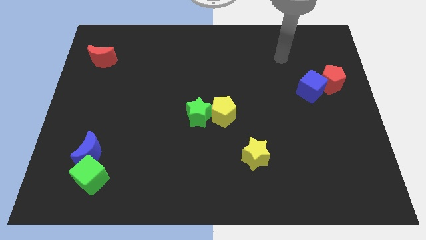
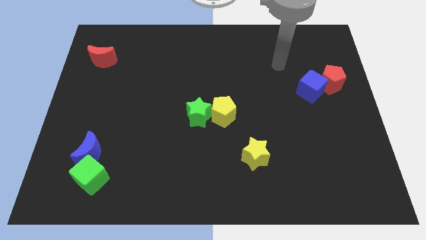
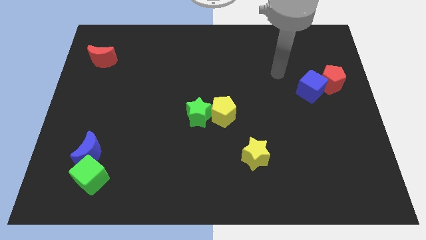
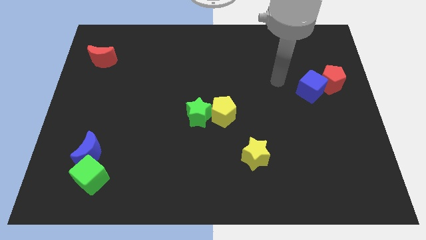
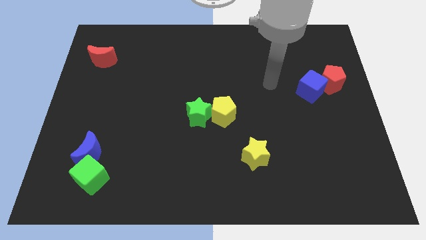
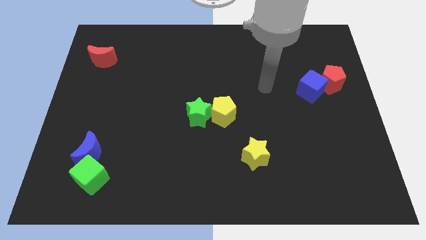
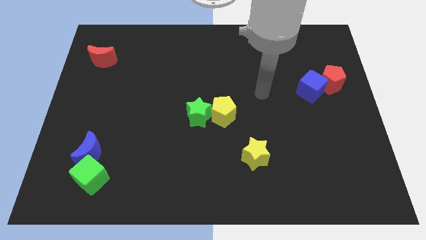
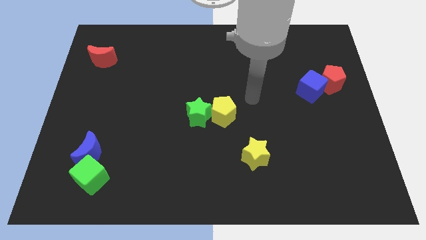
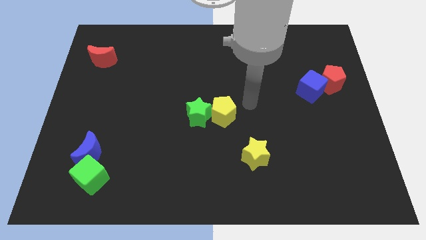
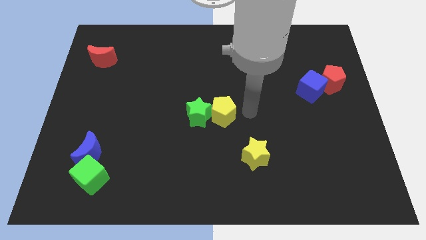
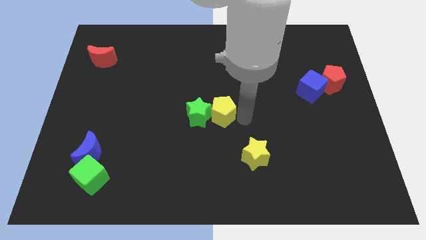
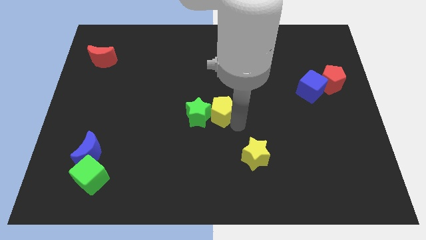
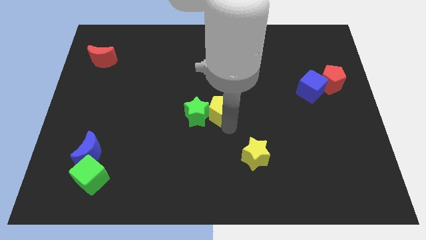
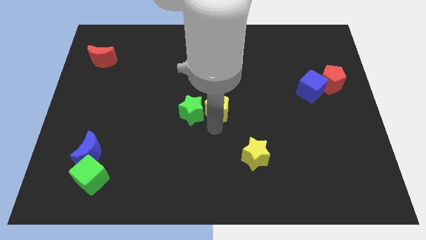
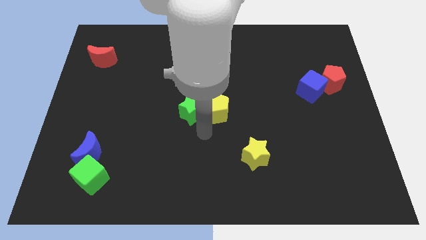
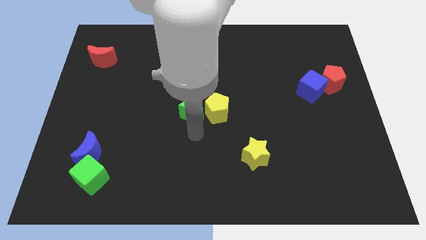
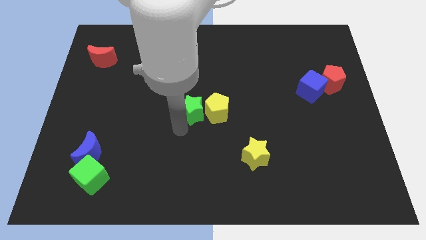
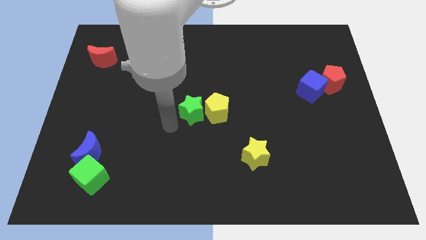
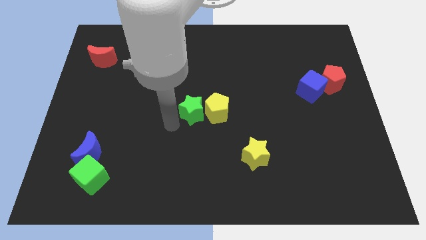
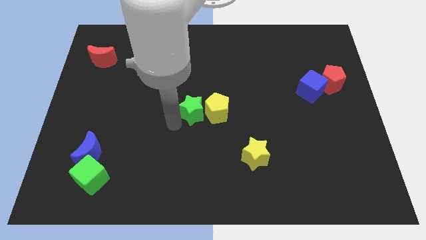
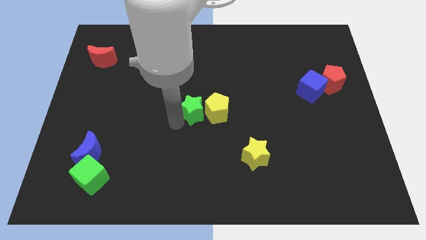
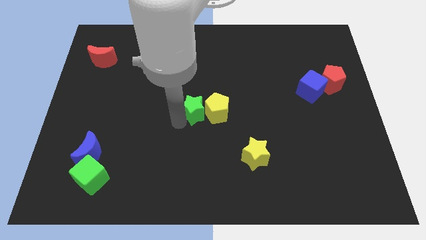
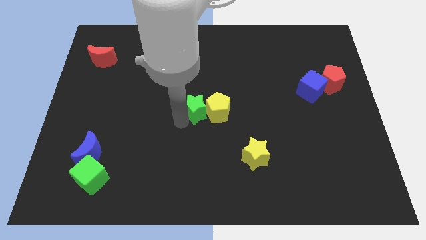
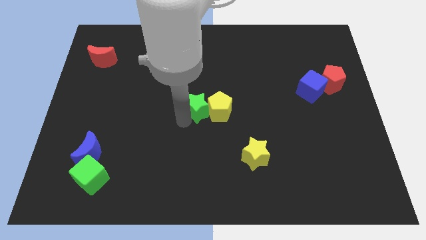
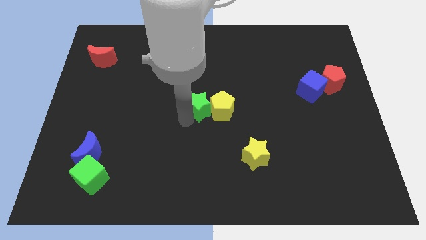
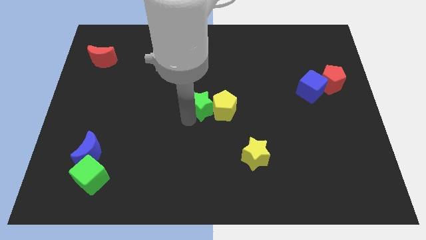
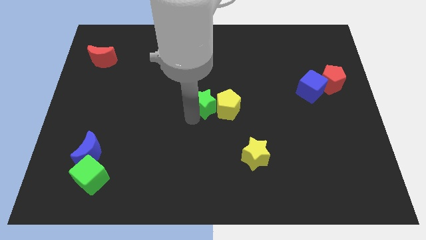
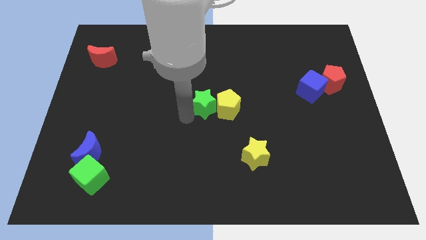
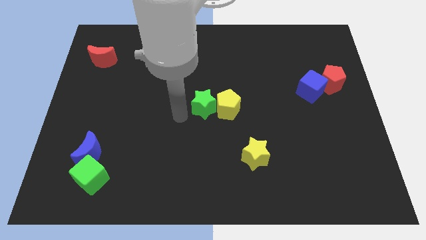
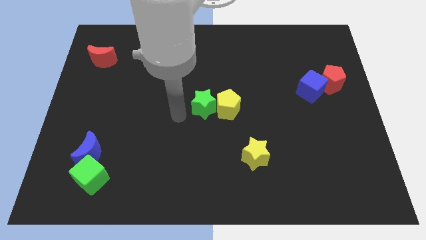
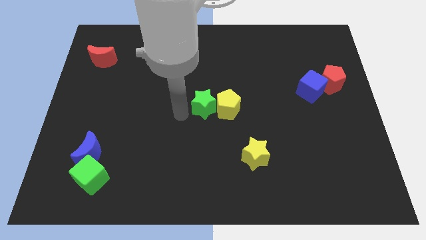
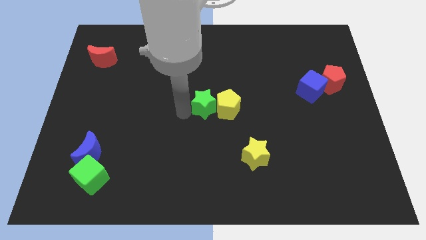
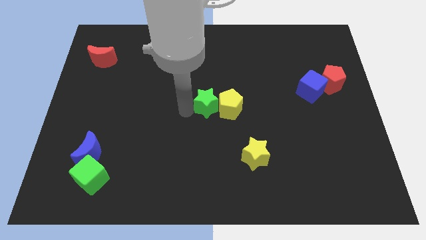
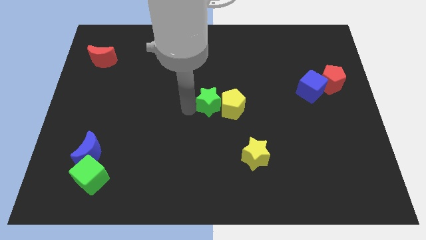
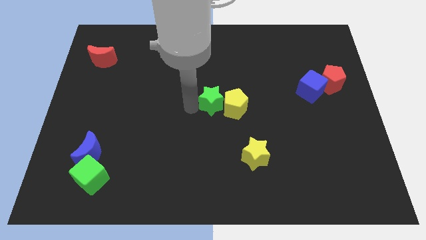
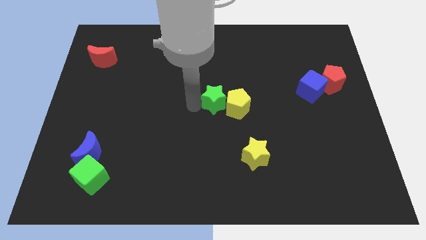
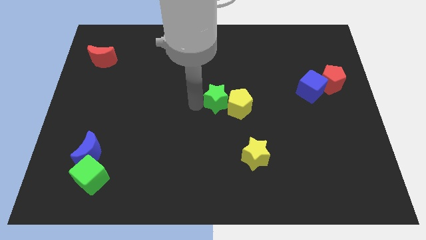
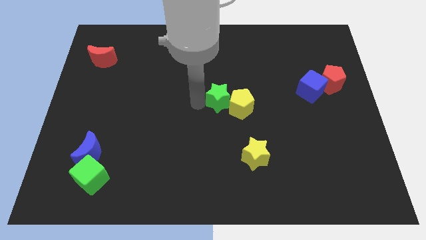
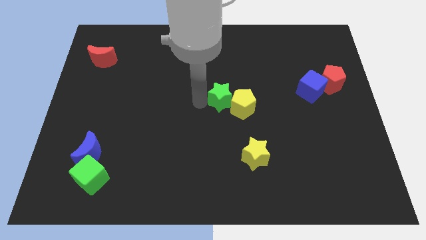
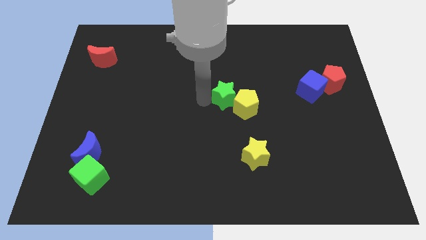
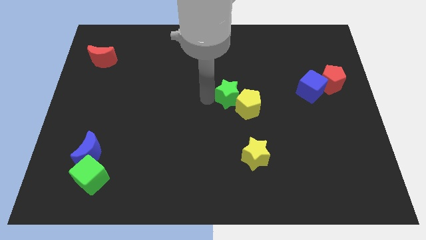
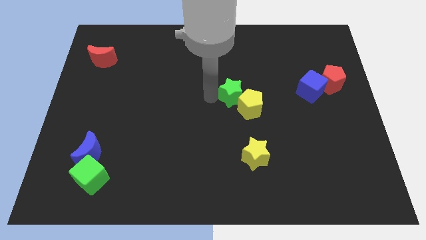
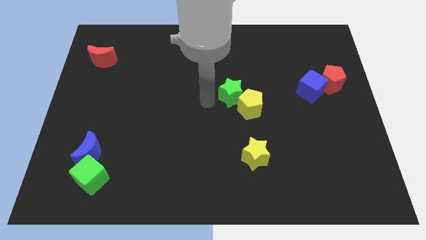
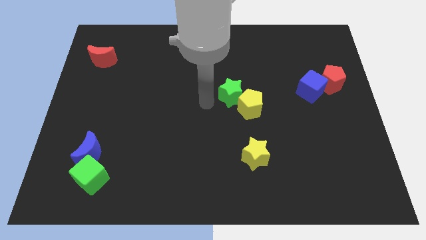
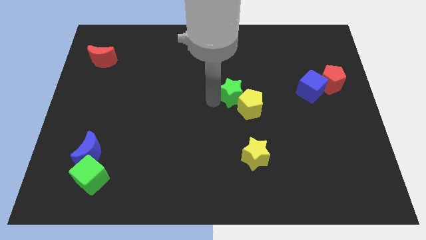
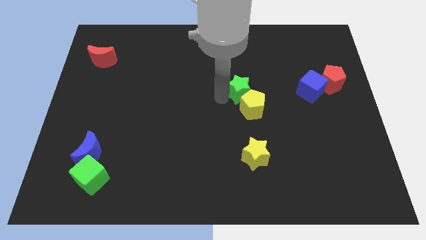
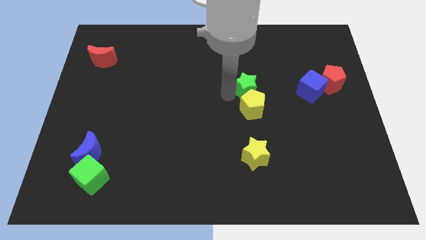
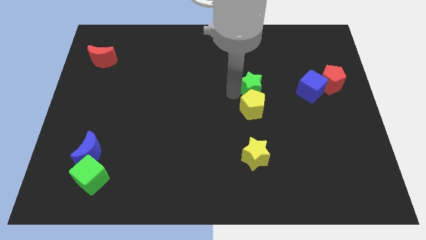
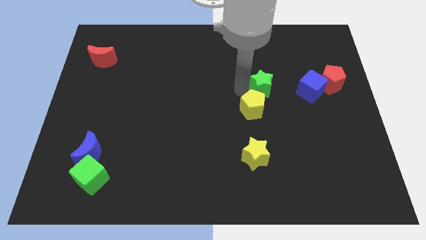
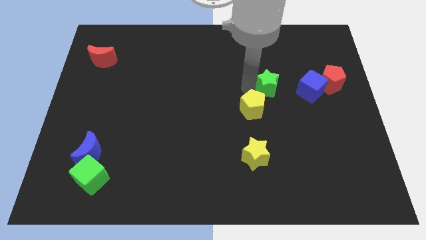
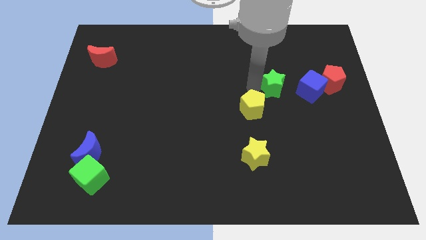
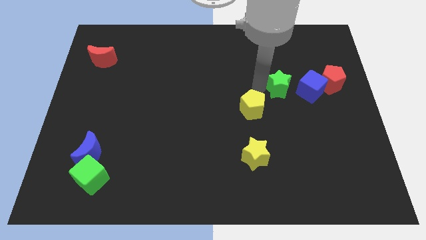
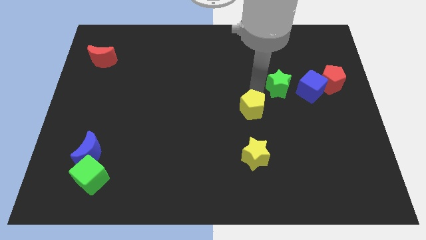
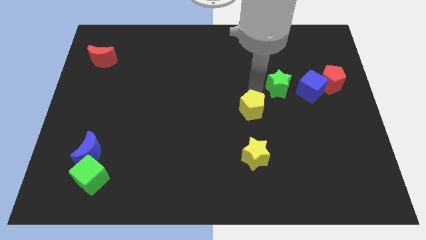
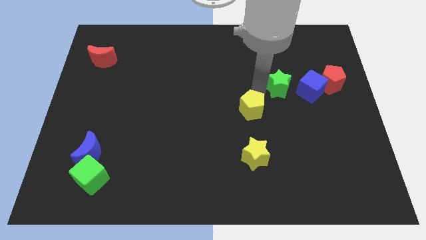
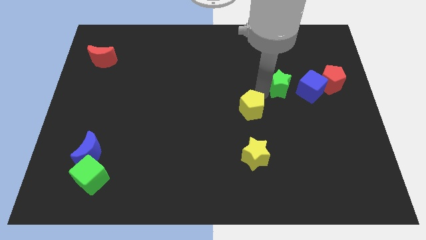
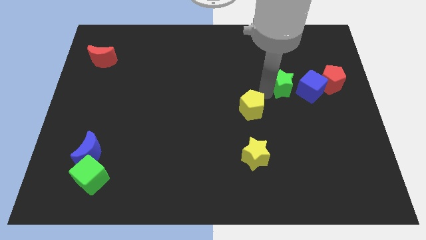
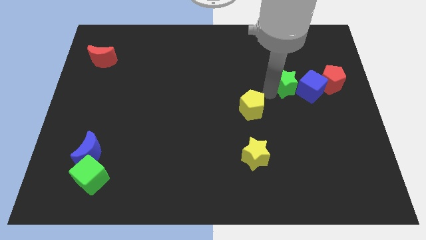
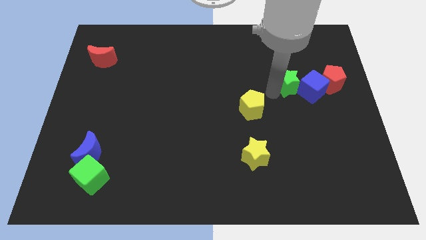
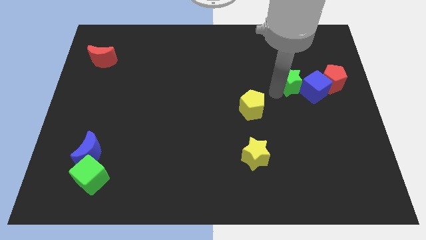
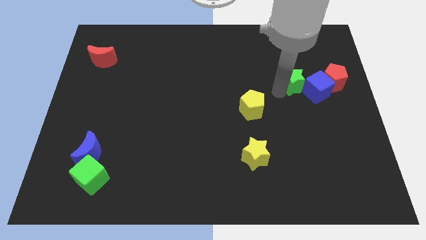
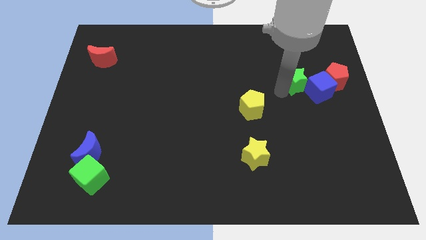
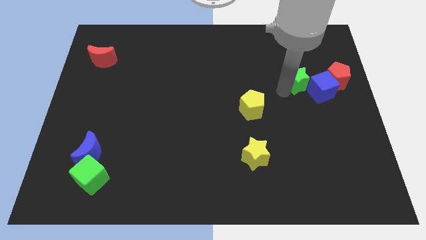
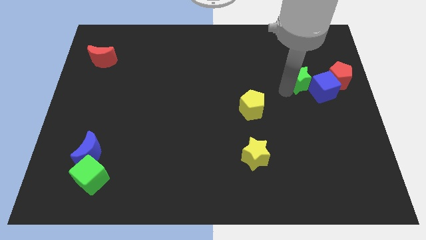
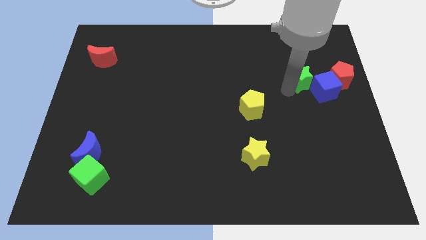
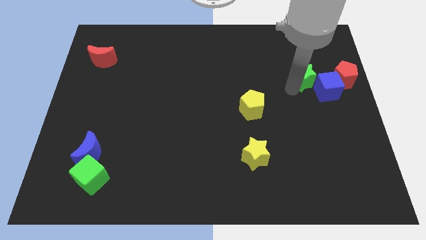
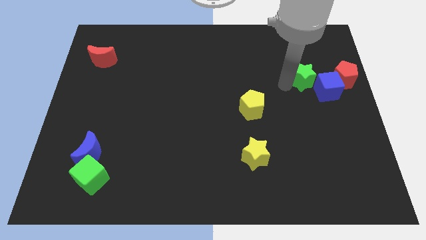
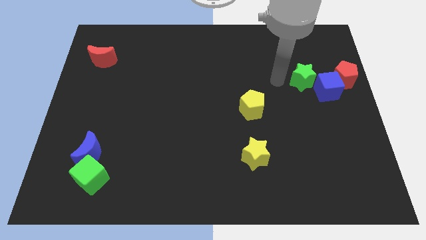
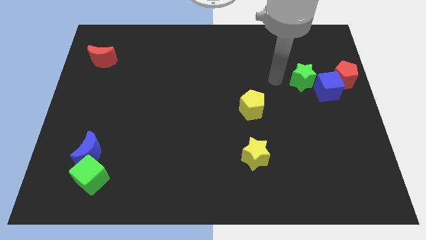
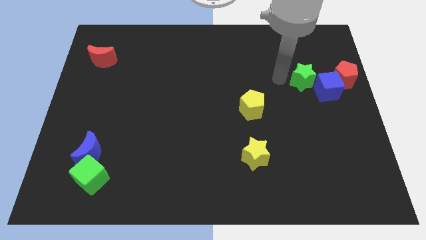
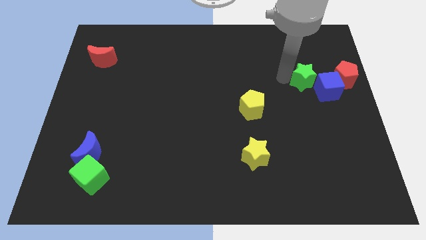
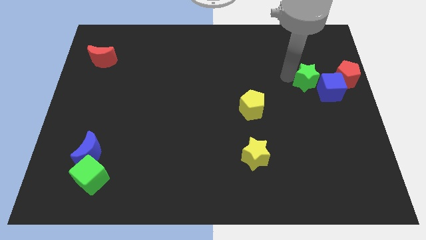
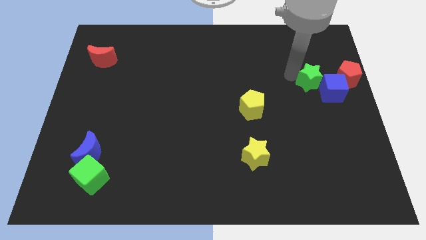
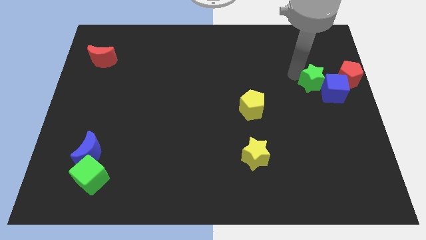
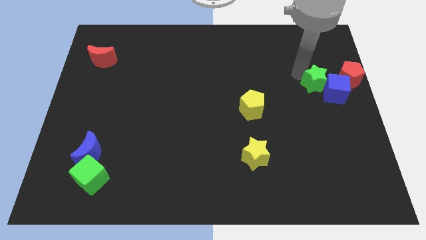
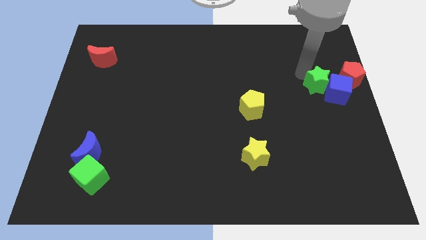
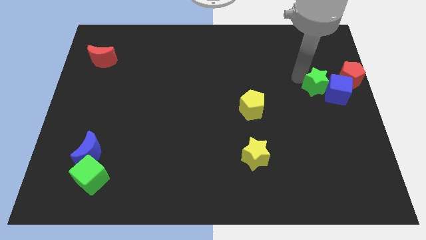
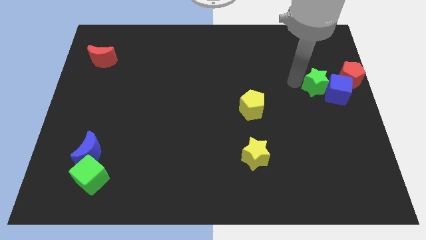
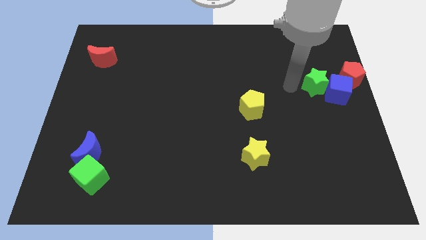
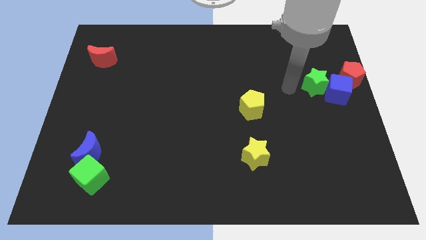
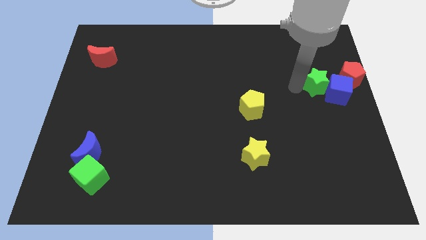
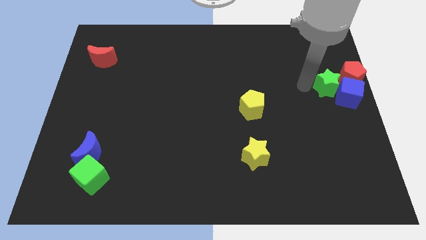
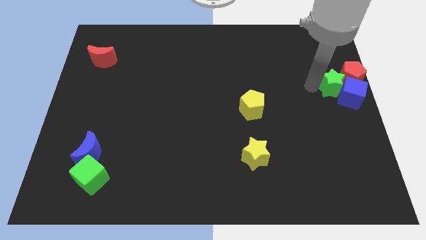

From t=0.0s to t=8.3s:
put the green star to the red pentagon
